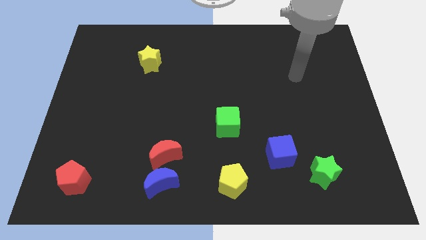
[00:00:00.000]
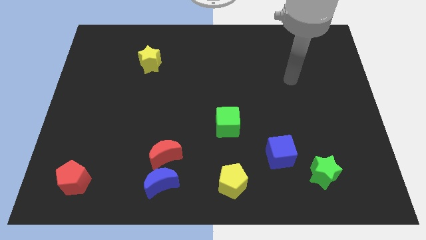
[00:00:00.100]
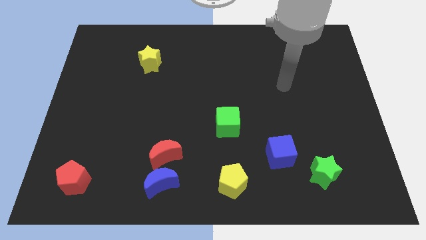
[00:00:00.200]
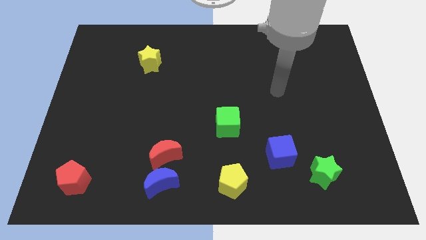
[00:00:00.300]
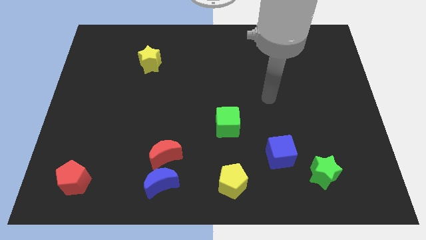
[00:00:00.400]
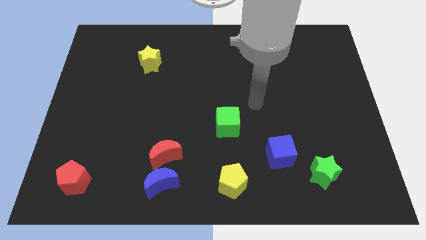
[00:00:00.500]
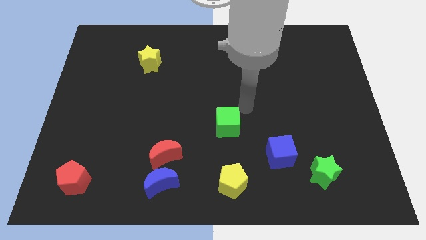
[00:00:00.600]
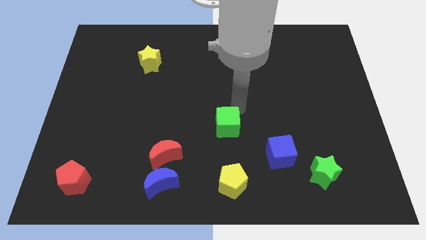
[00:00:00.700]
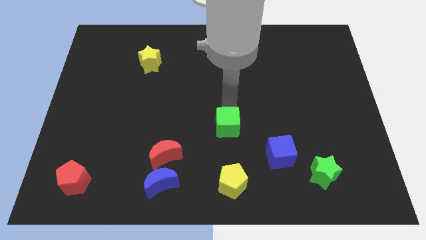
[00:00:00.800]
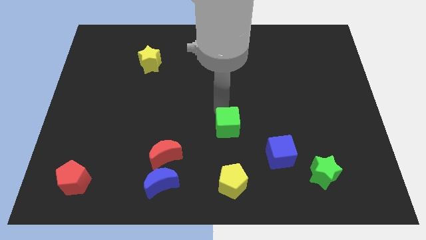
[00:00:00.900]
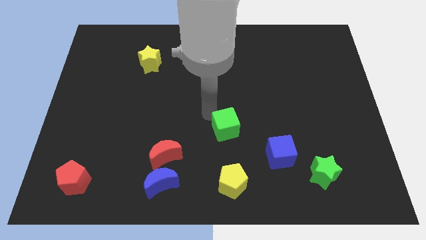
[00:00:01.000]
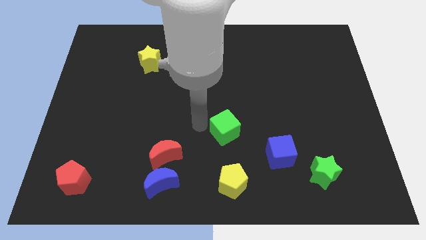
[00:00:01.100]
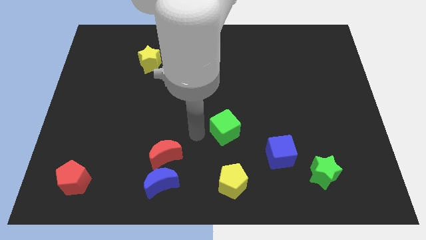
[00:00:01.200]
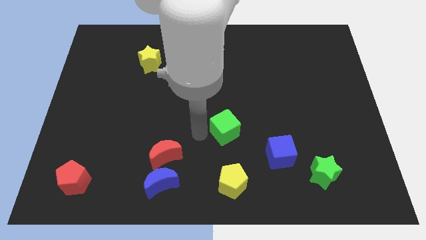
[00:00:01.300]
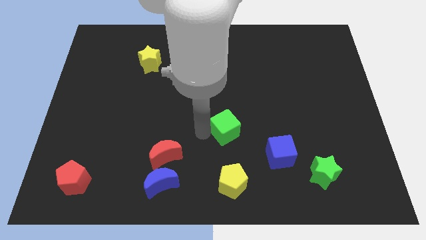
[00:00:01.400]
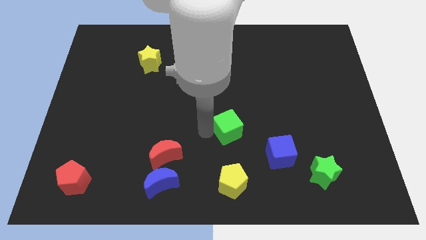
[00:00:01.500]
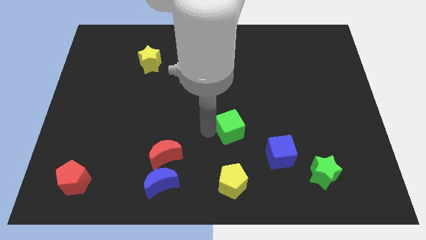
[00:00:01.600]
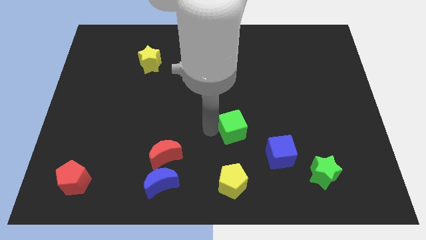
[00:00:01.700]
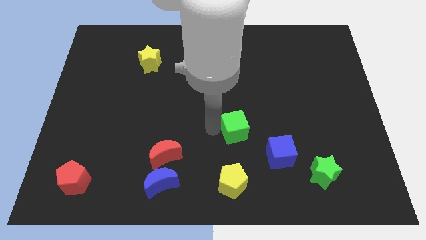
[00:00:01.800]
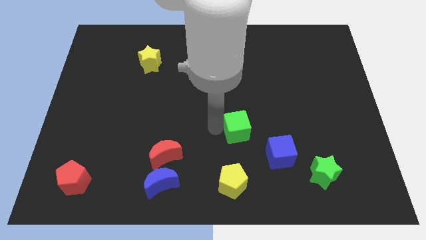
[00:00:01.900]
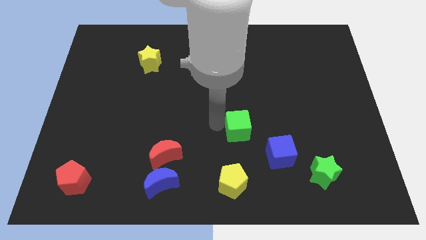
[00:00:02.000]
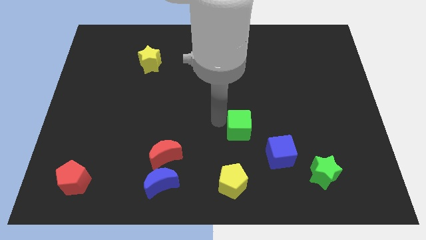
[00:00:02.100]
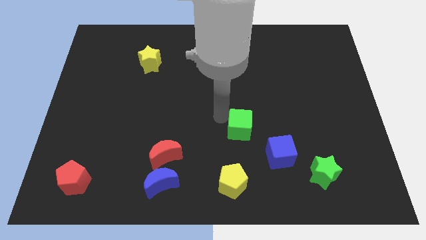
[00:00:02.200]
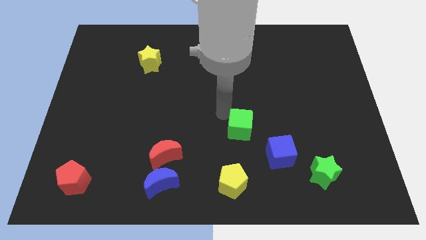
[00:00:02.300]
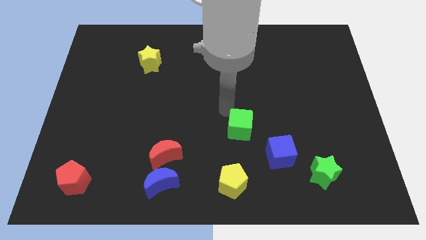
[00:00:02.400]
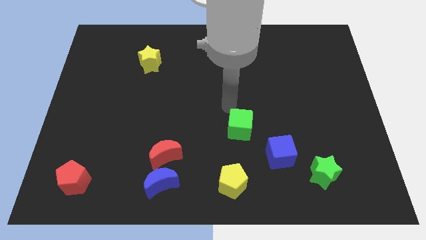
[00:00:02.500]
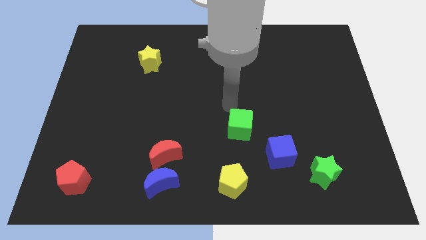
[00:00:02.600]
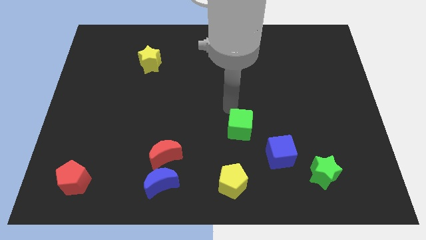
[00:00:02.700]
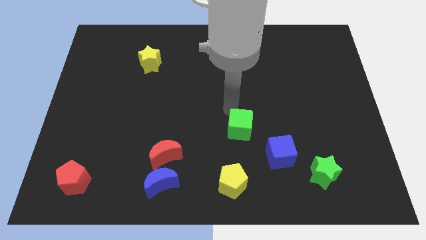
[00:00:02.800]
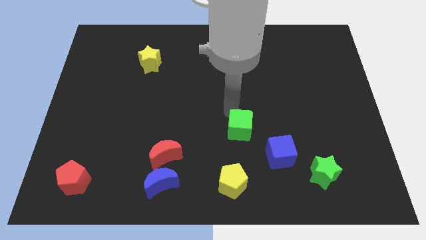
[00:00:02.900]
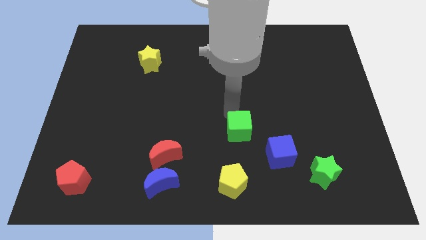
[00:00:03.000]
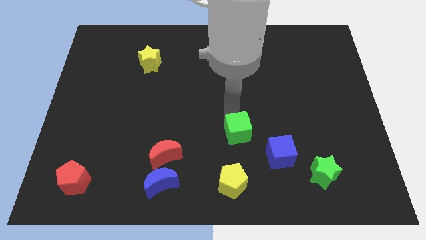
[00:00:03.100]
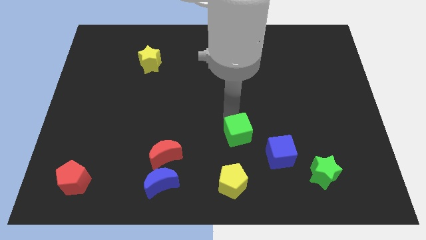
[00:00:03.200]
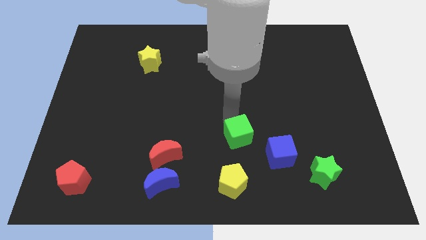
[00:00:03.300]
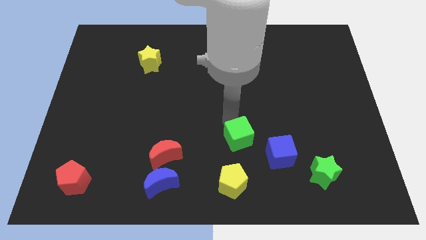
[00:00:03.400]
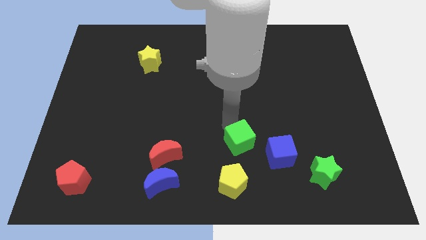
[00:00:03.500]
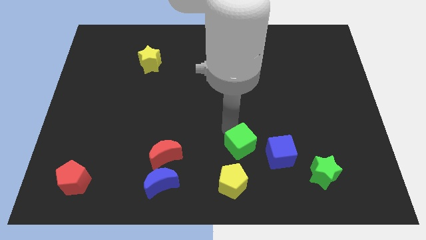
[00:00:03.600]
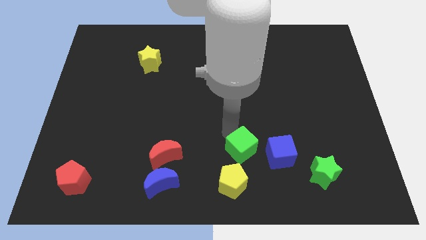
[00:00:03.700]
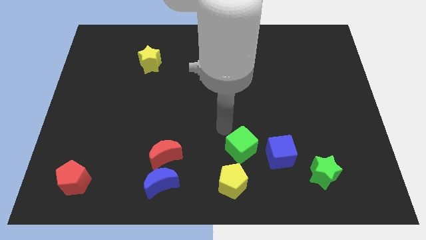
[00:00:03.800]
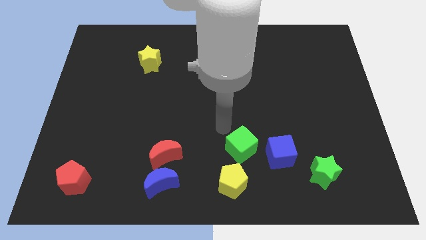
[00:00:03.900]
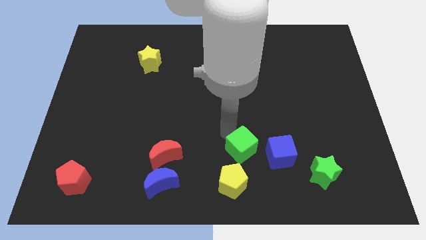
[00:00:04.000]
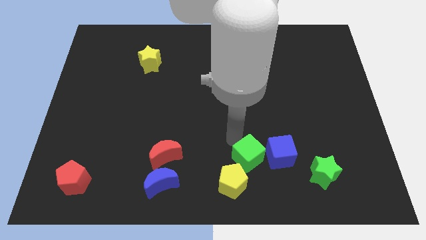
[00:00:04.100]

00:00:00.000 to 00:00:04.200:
move the green cube diagonally downwards and right somewhat

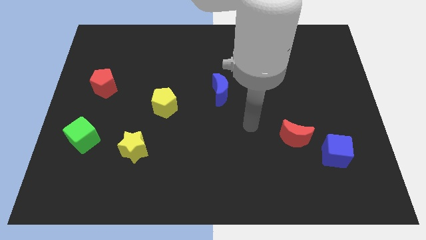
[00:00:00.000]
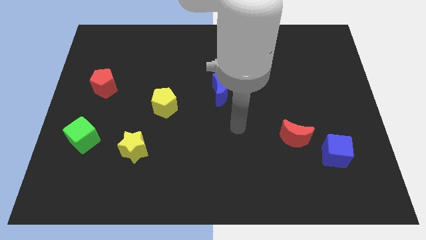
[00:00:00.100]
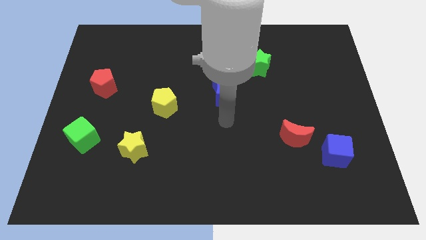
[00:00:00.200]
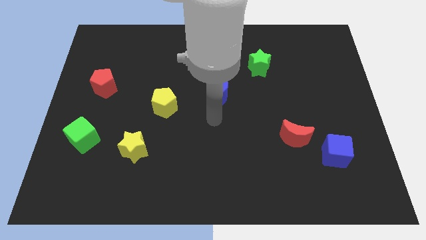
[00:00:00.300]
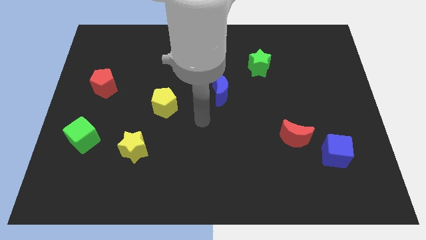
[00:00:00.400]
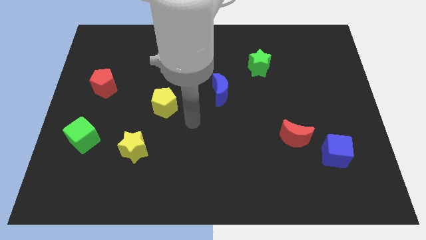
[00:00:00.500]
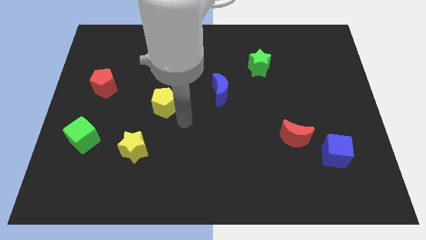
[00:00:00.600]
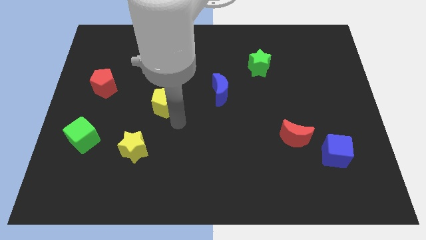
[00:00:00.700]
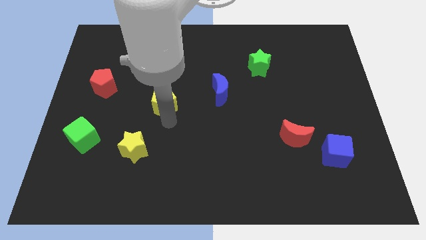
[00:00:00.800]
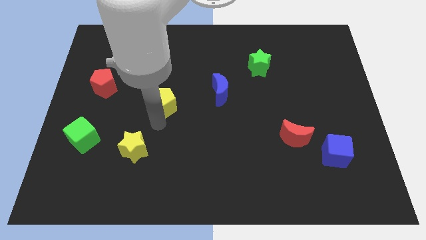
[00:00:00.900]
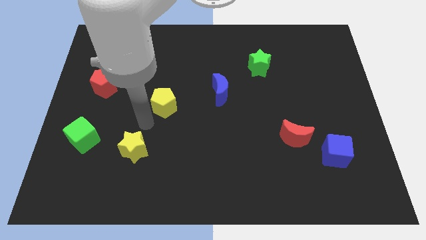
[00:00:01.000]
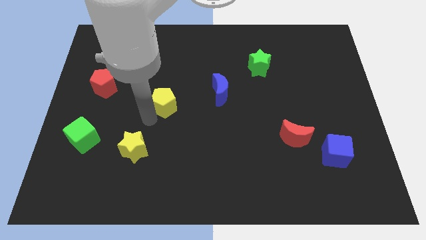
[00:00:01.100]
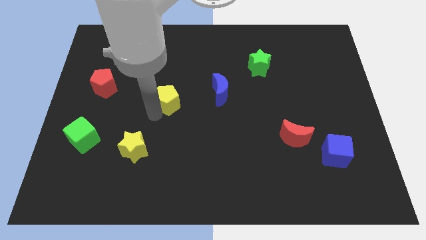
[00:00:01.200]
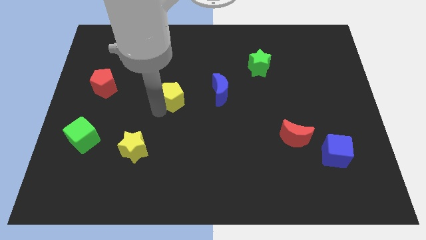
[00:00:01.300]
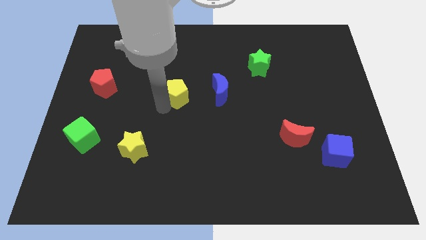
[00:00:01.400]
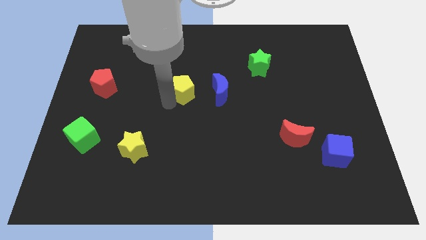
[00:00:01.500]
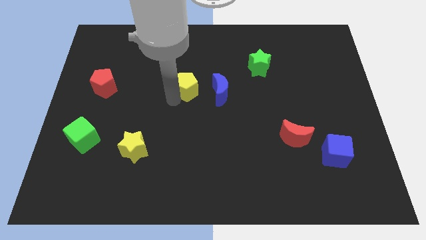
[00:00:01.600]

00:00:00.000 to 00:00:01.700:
slide the yellow pentagon upwards and to the right a little bit

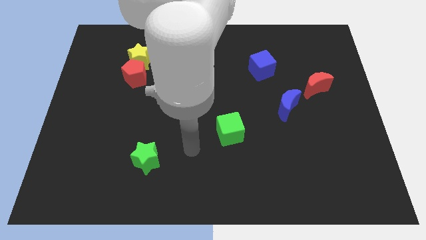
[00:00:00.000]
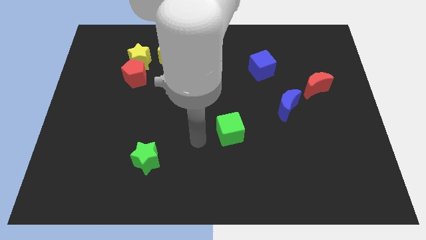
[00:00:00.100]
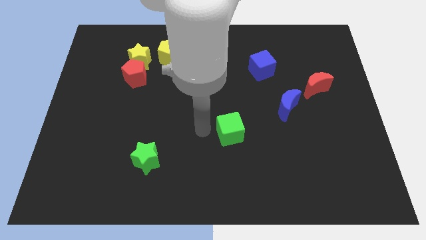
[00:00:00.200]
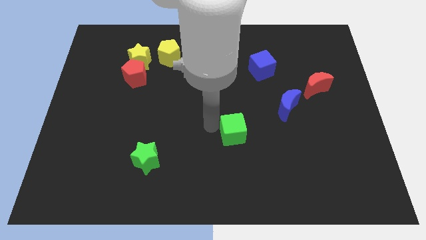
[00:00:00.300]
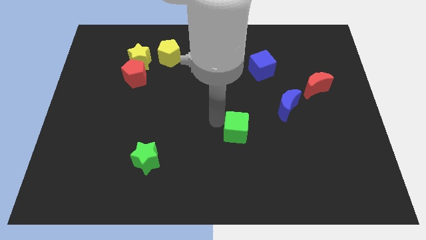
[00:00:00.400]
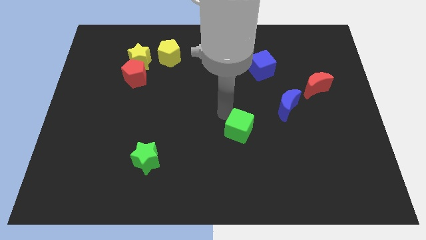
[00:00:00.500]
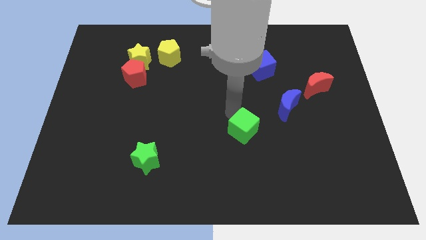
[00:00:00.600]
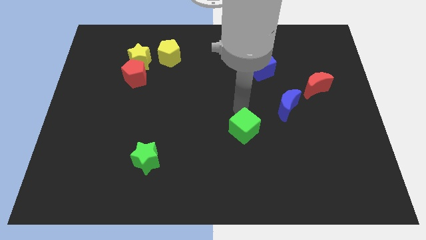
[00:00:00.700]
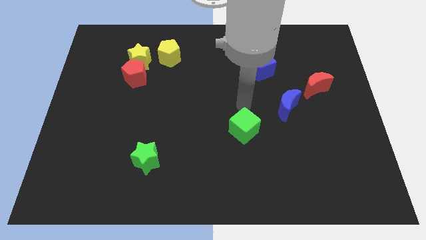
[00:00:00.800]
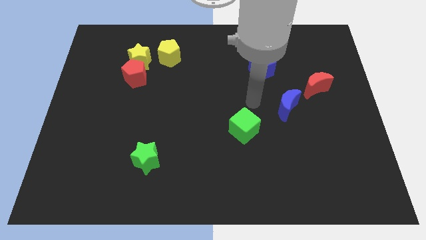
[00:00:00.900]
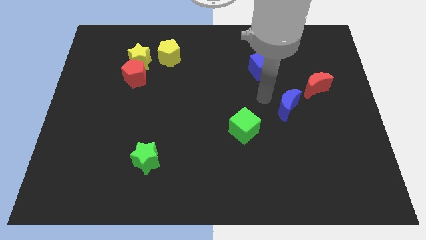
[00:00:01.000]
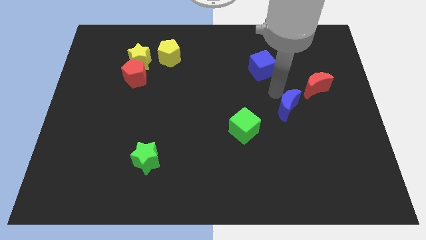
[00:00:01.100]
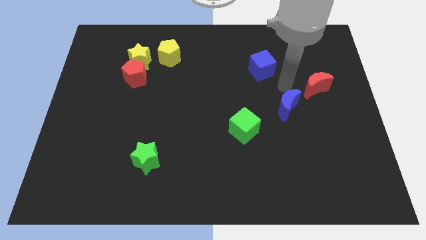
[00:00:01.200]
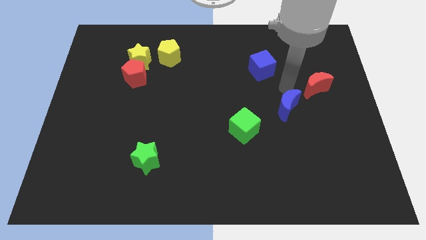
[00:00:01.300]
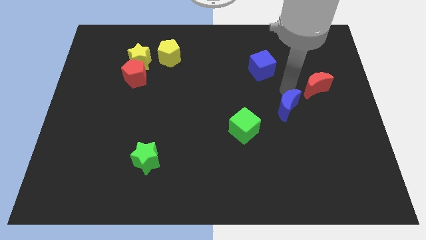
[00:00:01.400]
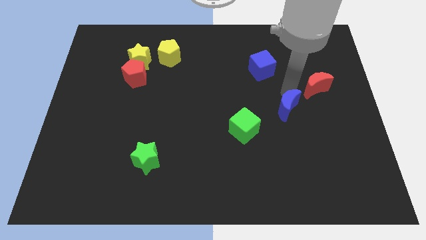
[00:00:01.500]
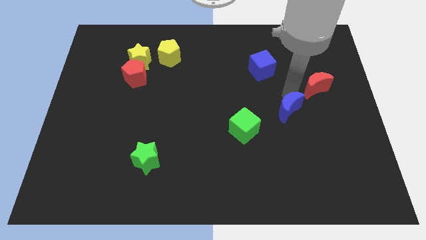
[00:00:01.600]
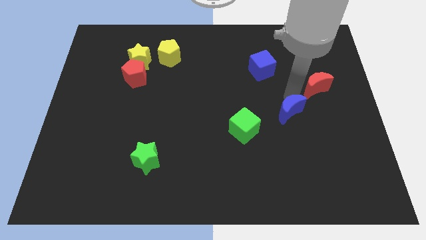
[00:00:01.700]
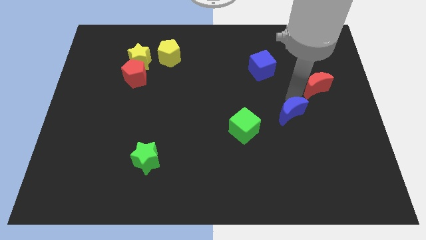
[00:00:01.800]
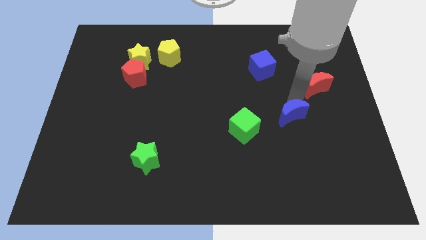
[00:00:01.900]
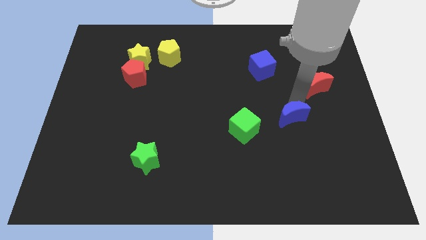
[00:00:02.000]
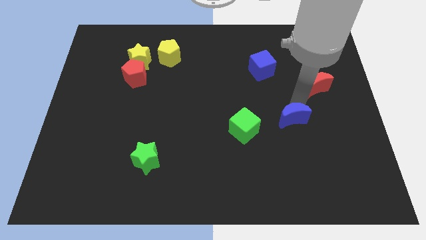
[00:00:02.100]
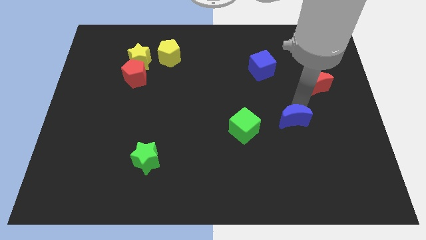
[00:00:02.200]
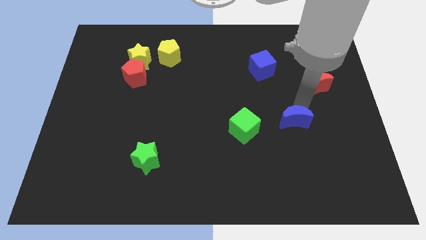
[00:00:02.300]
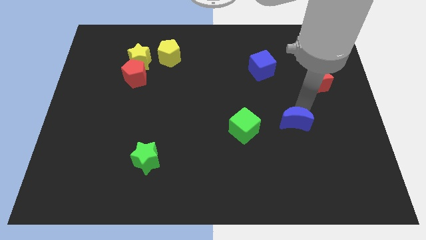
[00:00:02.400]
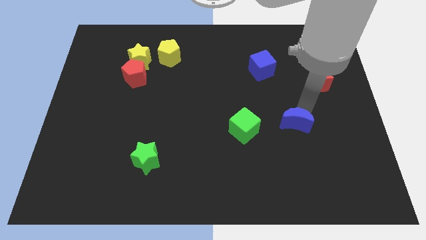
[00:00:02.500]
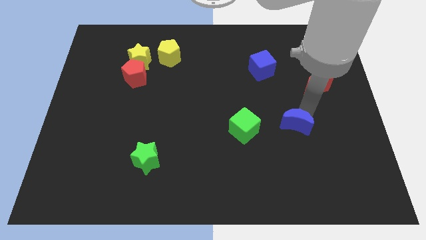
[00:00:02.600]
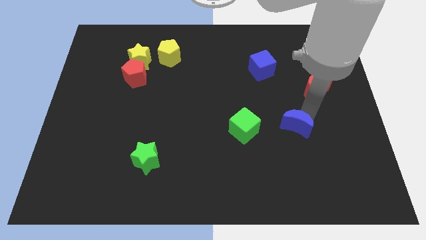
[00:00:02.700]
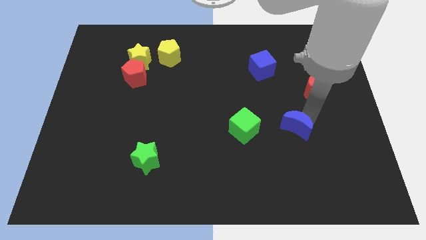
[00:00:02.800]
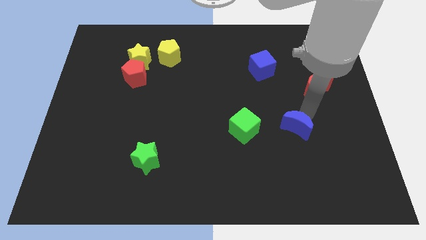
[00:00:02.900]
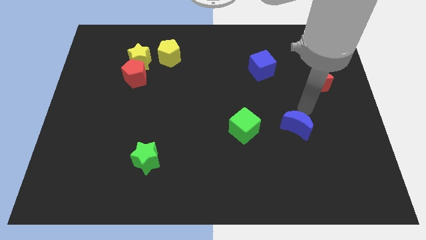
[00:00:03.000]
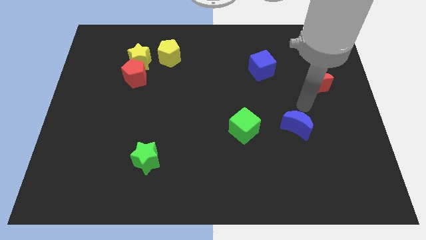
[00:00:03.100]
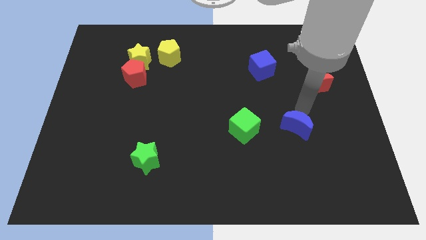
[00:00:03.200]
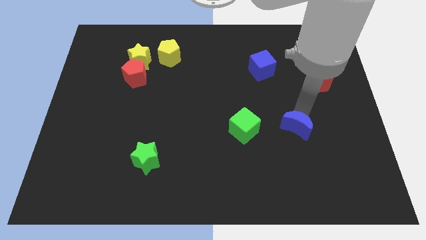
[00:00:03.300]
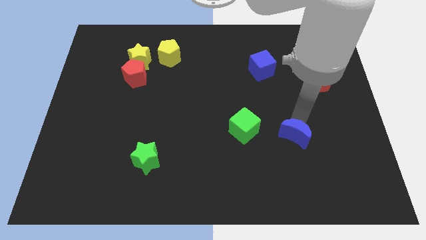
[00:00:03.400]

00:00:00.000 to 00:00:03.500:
move the blue moon a little down
